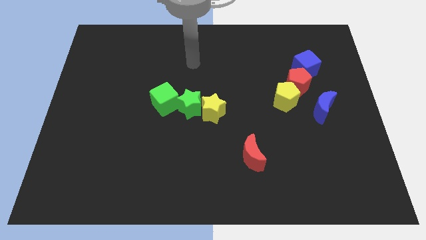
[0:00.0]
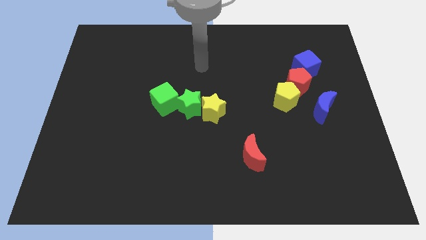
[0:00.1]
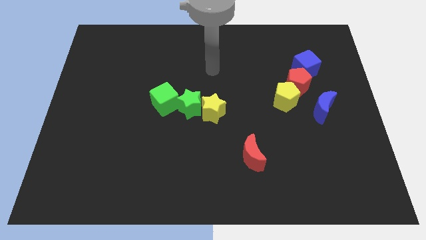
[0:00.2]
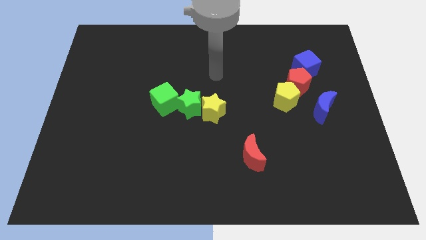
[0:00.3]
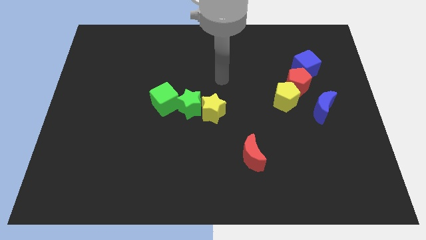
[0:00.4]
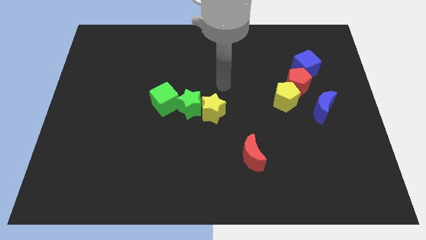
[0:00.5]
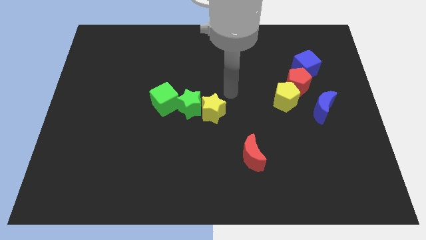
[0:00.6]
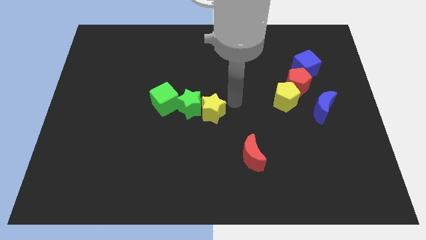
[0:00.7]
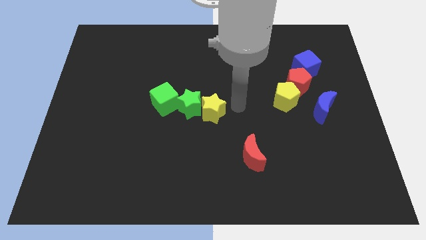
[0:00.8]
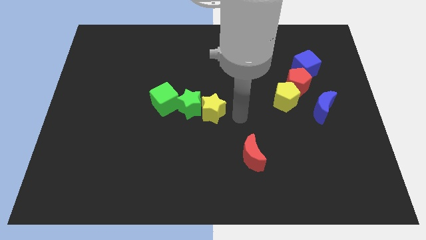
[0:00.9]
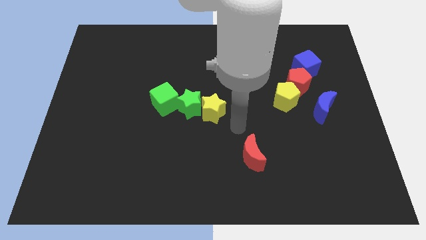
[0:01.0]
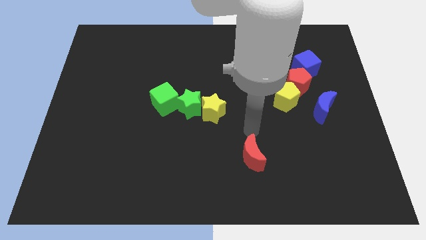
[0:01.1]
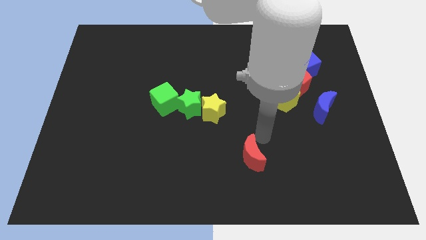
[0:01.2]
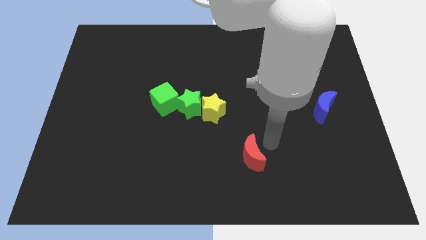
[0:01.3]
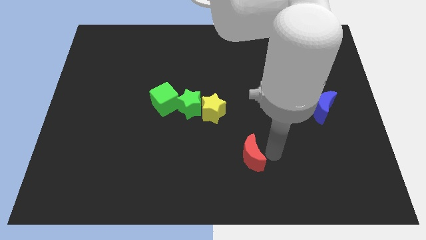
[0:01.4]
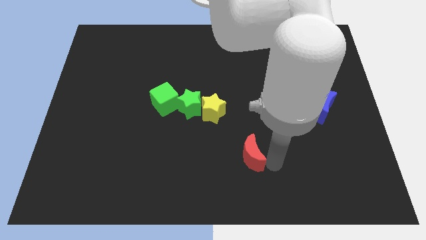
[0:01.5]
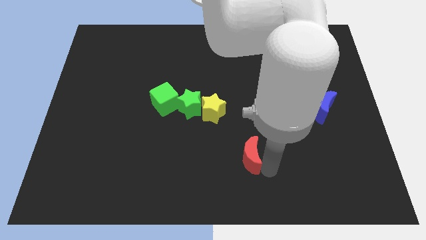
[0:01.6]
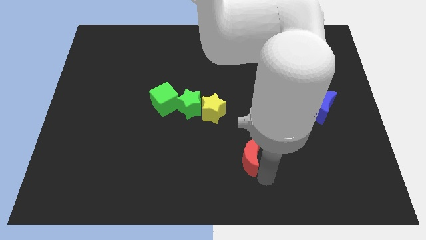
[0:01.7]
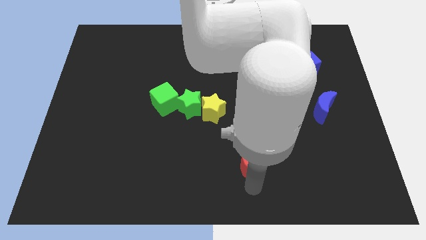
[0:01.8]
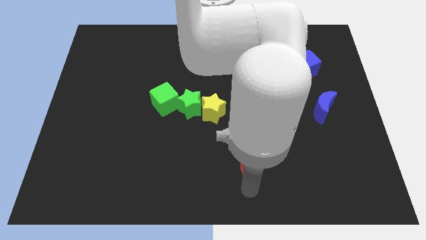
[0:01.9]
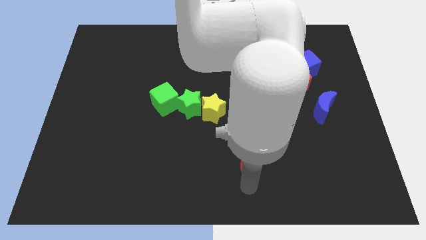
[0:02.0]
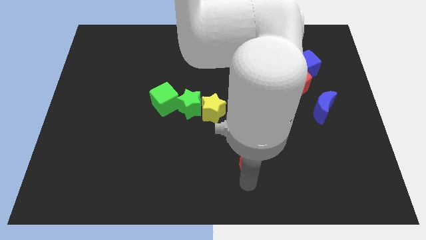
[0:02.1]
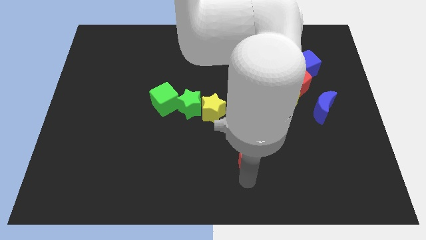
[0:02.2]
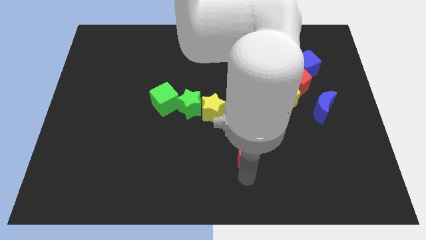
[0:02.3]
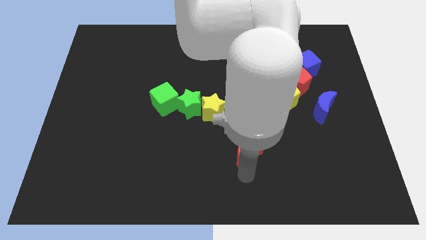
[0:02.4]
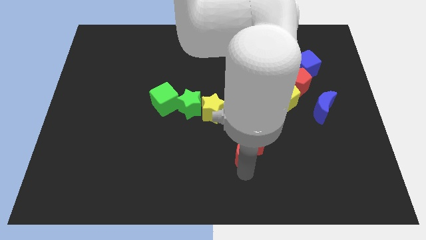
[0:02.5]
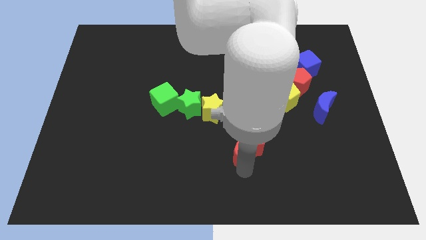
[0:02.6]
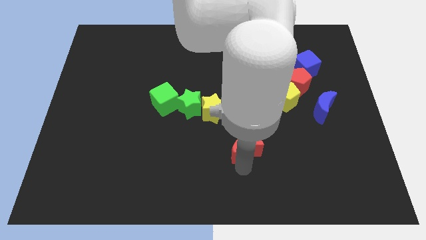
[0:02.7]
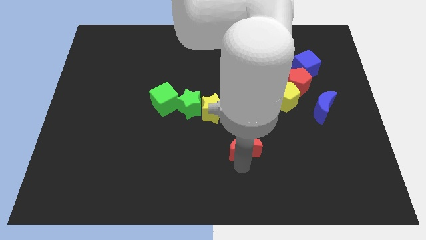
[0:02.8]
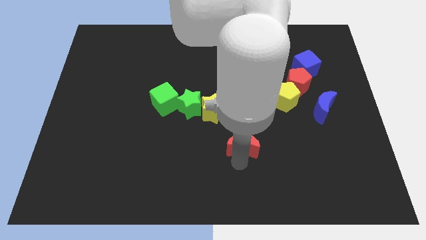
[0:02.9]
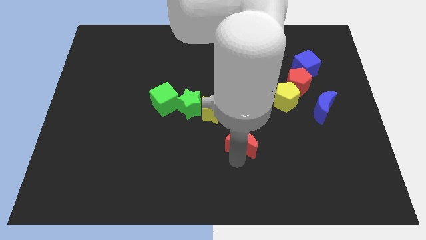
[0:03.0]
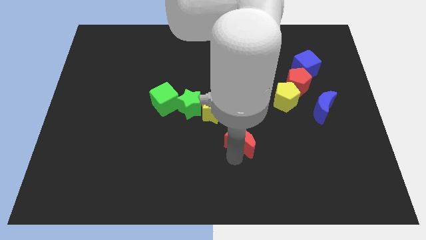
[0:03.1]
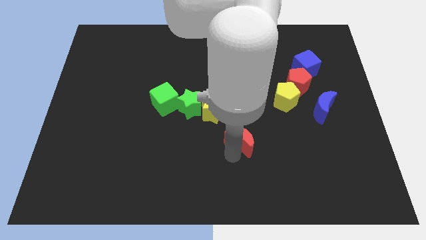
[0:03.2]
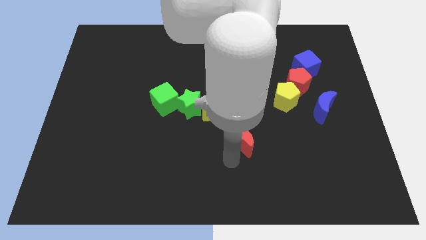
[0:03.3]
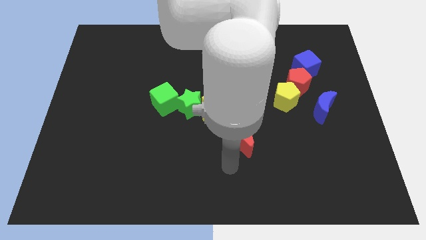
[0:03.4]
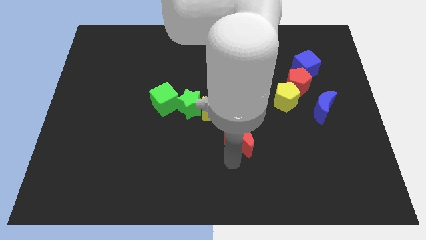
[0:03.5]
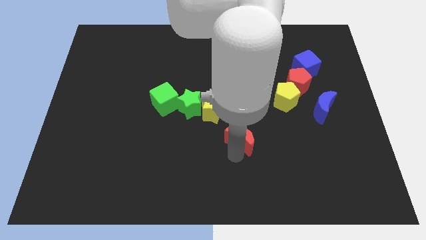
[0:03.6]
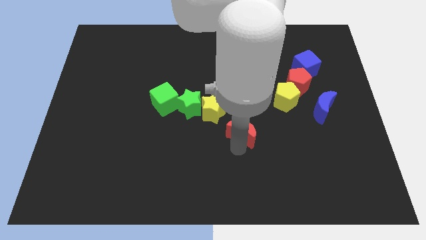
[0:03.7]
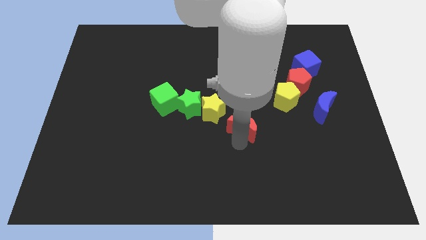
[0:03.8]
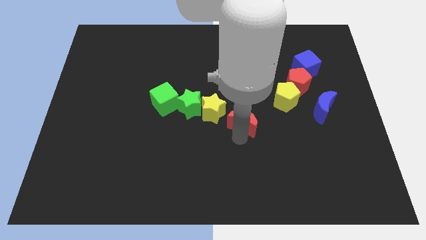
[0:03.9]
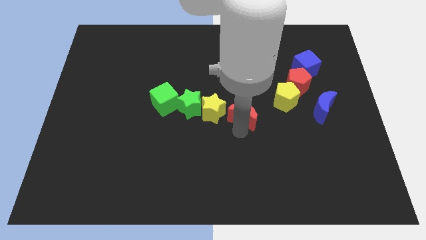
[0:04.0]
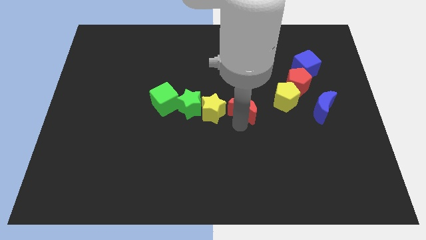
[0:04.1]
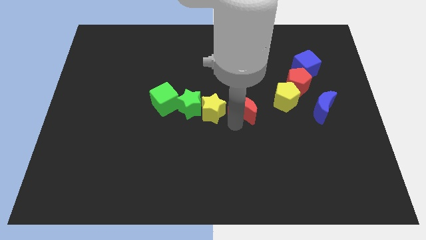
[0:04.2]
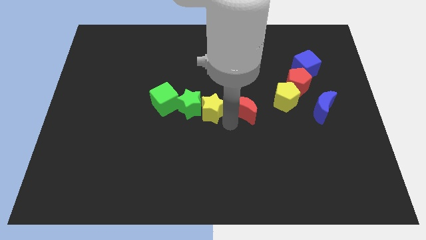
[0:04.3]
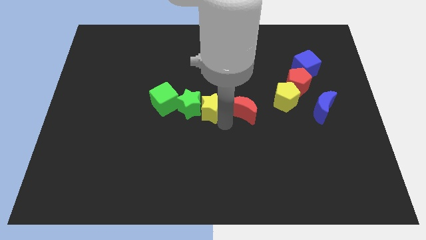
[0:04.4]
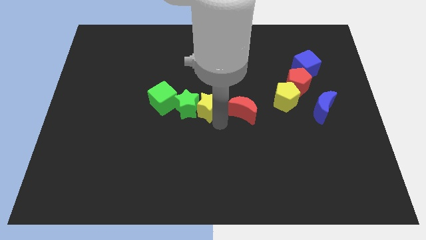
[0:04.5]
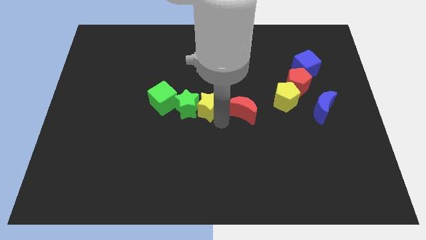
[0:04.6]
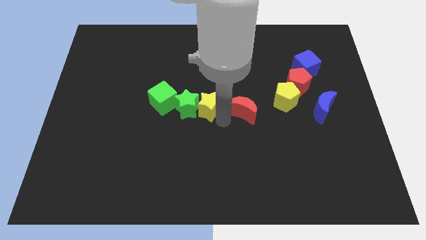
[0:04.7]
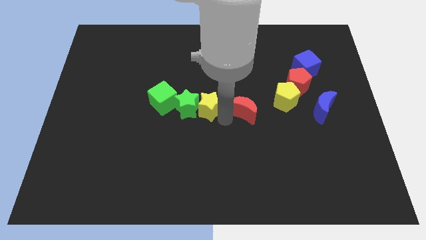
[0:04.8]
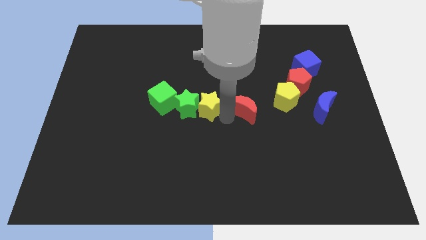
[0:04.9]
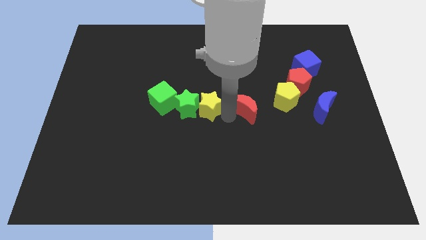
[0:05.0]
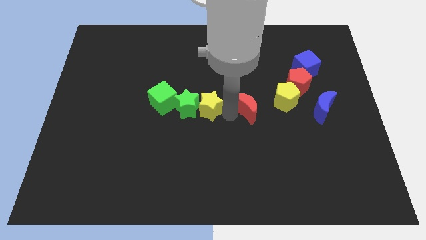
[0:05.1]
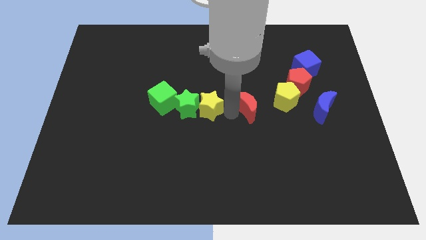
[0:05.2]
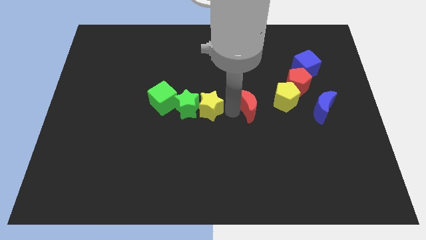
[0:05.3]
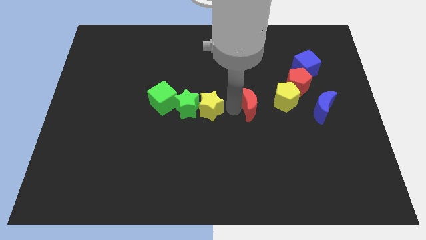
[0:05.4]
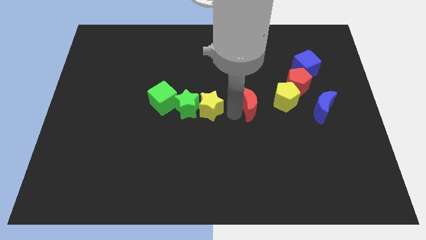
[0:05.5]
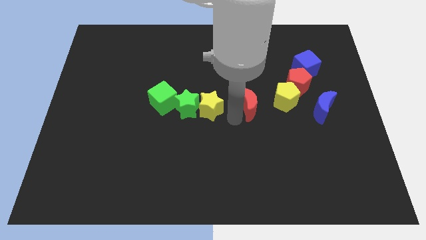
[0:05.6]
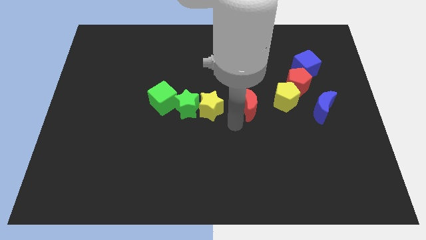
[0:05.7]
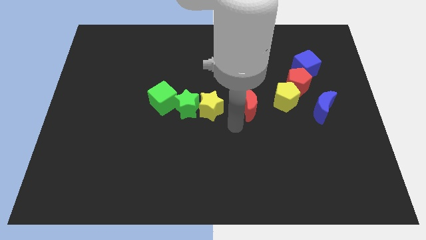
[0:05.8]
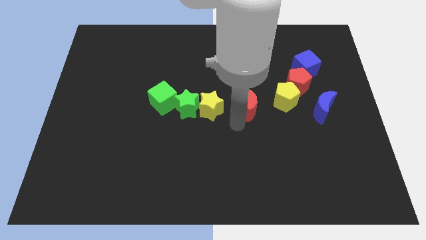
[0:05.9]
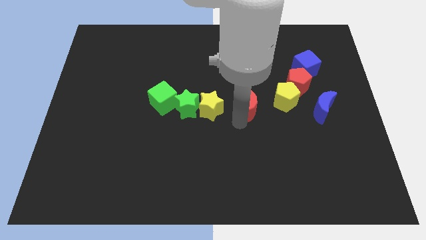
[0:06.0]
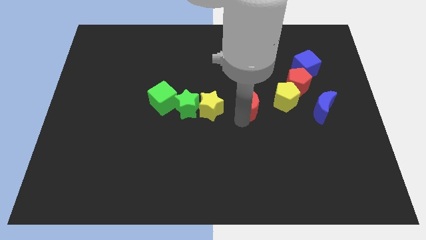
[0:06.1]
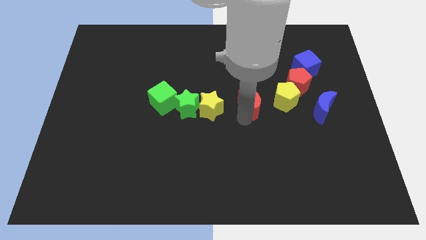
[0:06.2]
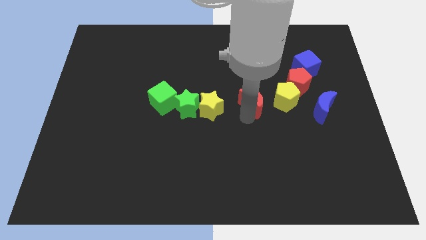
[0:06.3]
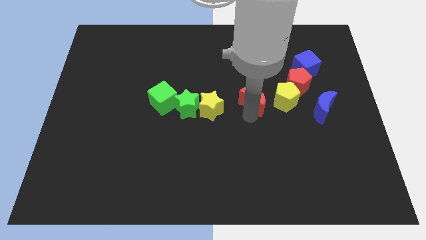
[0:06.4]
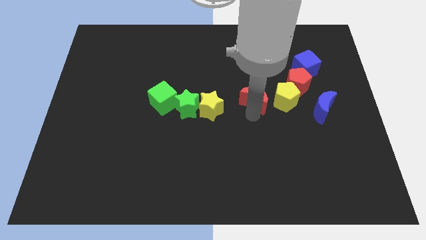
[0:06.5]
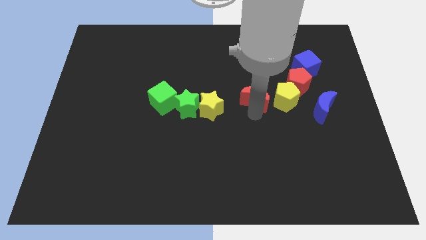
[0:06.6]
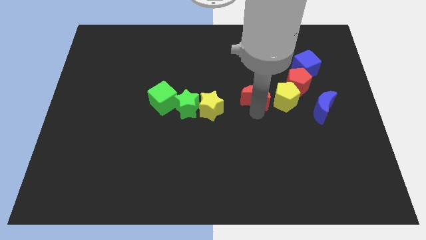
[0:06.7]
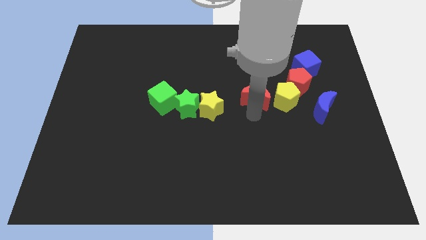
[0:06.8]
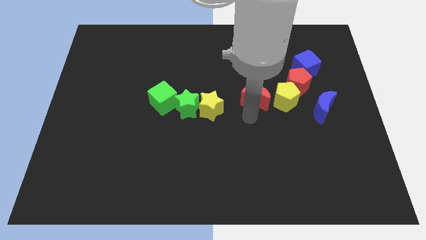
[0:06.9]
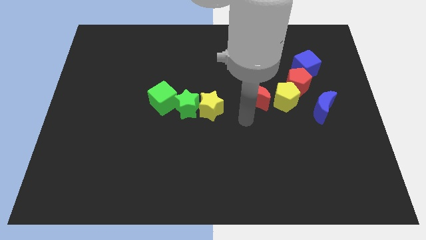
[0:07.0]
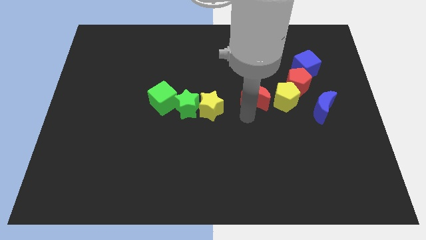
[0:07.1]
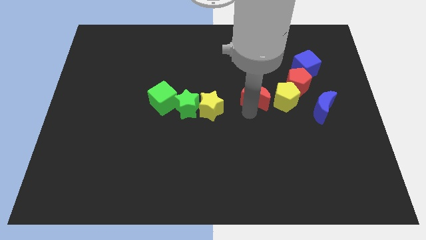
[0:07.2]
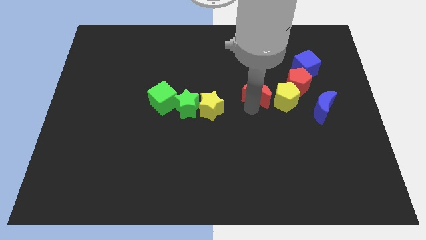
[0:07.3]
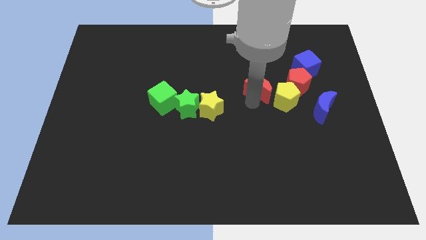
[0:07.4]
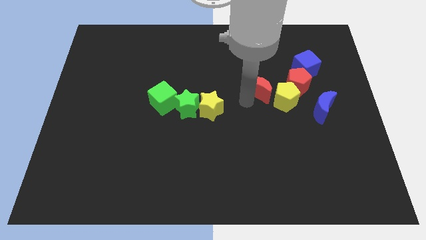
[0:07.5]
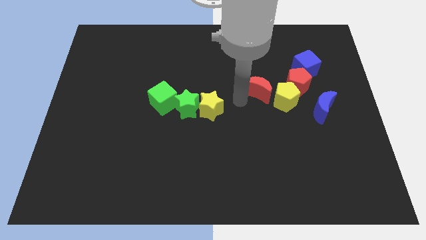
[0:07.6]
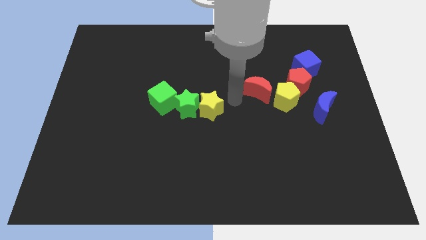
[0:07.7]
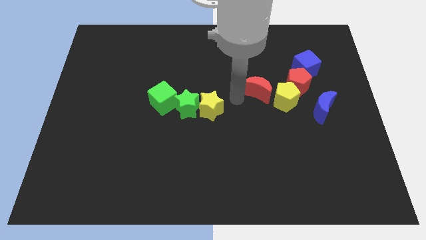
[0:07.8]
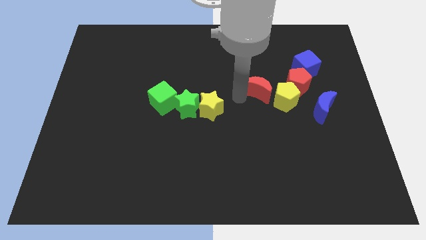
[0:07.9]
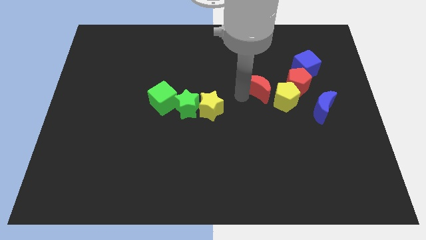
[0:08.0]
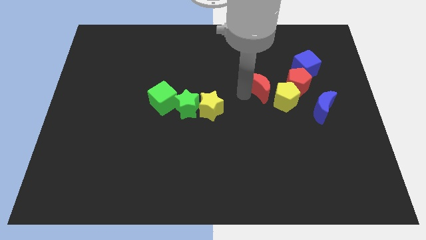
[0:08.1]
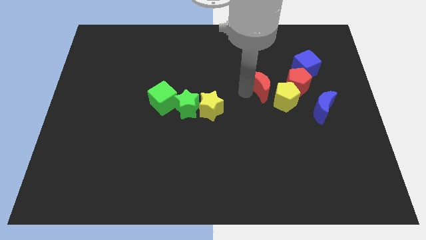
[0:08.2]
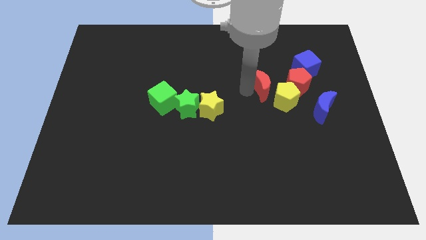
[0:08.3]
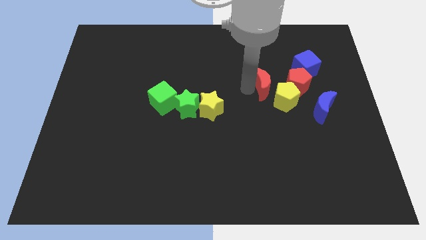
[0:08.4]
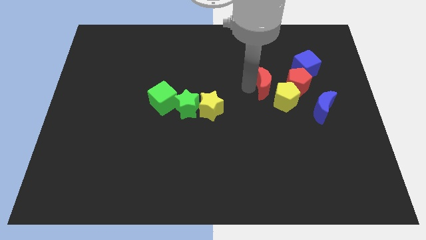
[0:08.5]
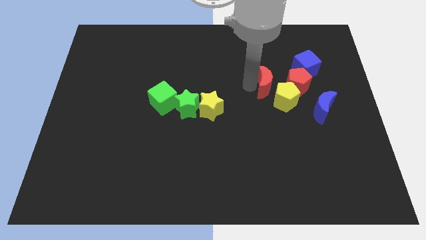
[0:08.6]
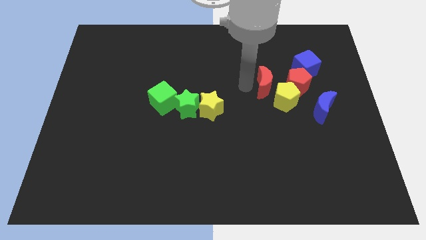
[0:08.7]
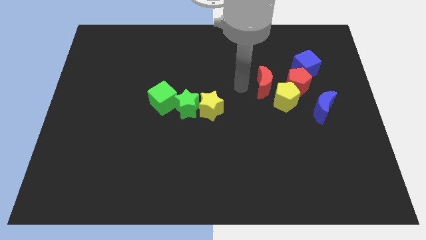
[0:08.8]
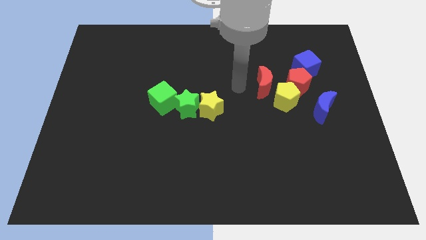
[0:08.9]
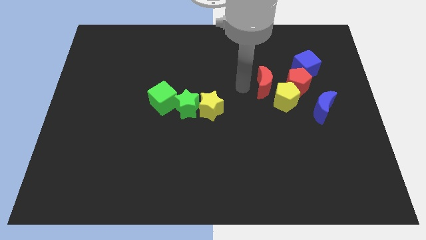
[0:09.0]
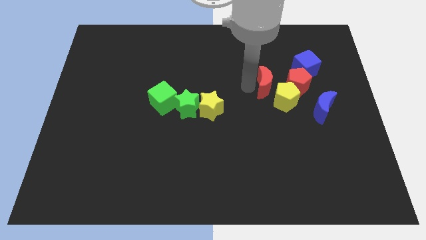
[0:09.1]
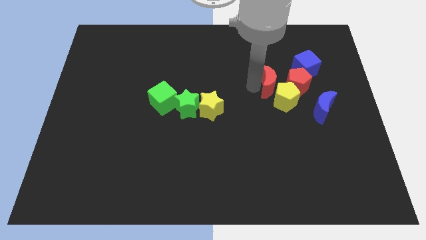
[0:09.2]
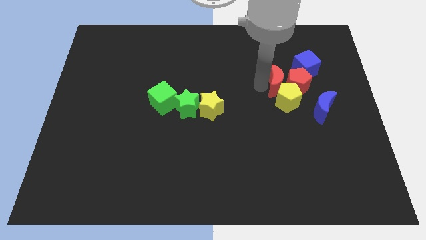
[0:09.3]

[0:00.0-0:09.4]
move the red moon towards the red pentagon
